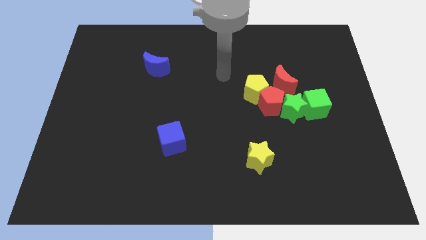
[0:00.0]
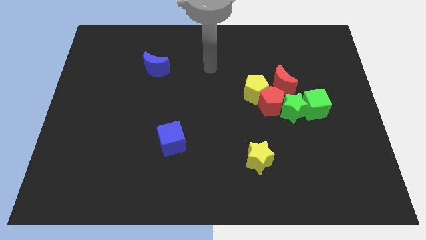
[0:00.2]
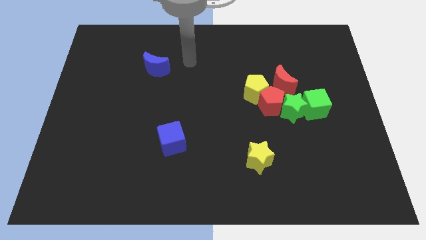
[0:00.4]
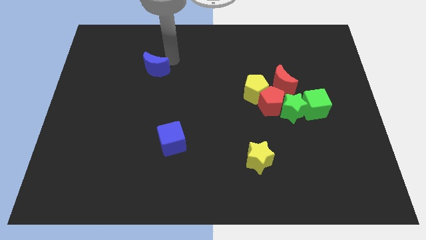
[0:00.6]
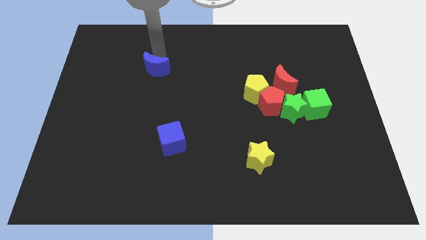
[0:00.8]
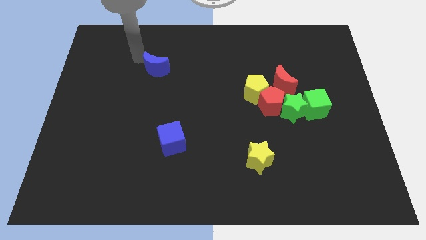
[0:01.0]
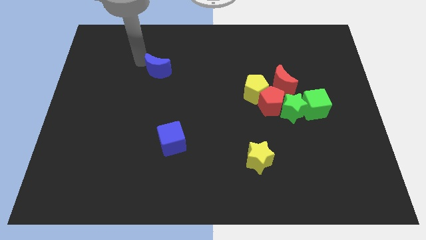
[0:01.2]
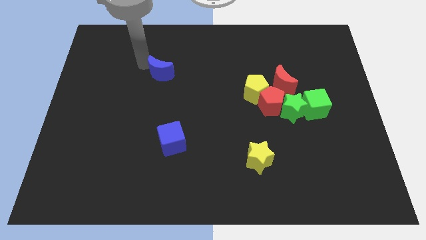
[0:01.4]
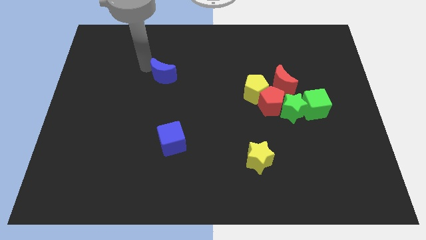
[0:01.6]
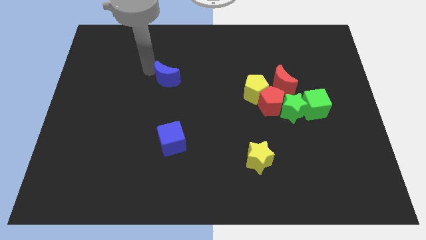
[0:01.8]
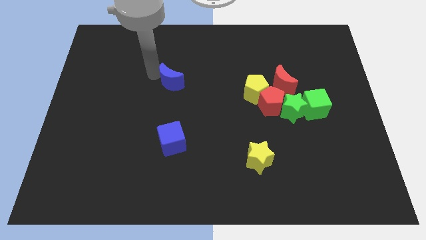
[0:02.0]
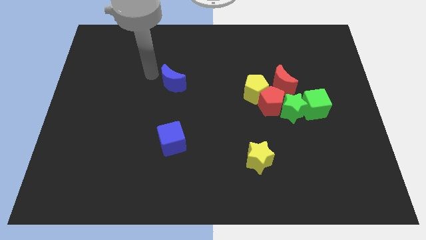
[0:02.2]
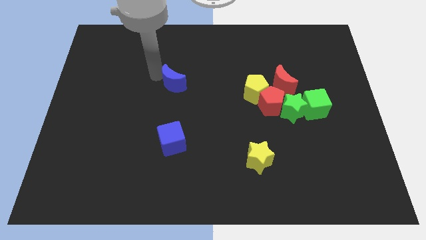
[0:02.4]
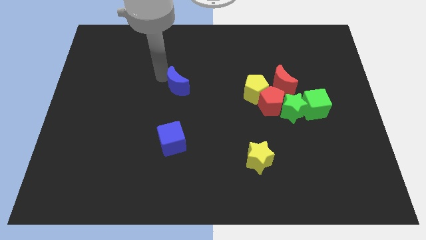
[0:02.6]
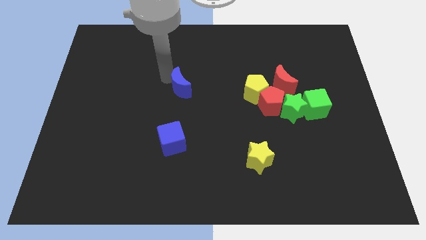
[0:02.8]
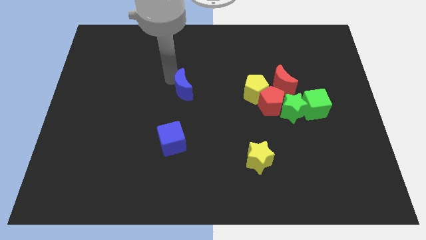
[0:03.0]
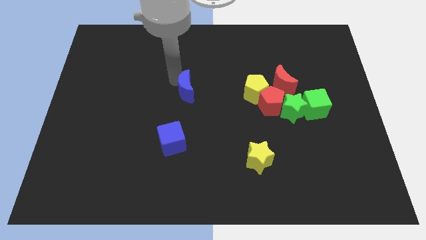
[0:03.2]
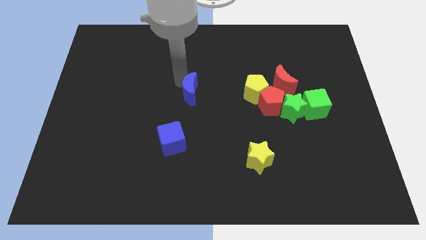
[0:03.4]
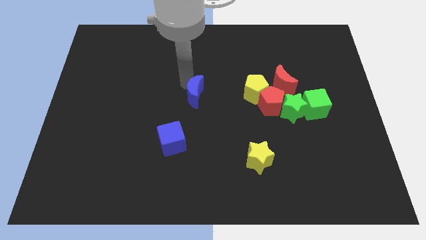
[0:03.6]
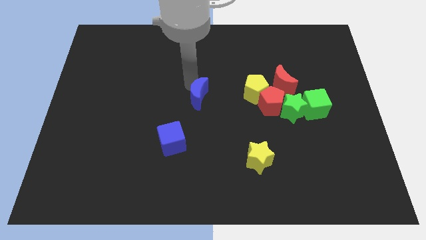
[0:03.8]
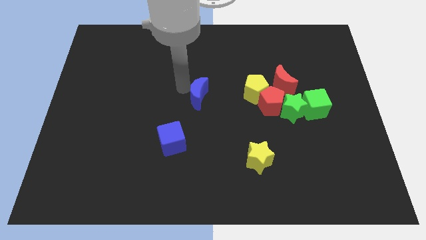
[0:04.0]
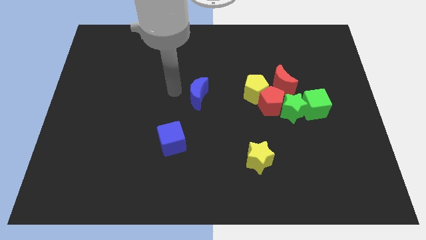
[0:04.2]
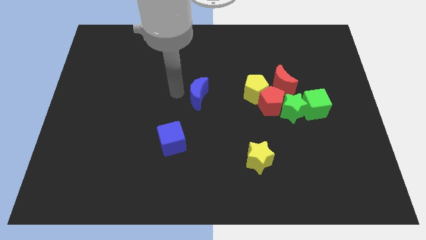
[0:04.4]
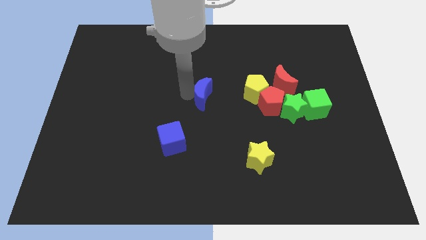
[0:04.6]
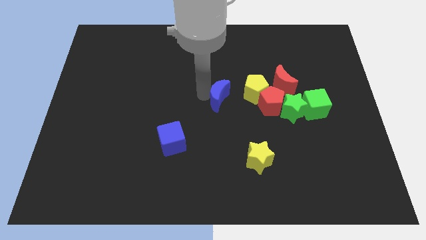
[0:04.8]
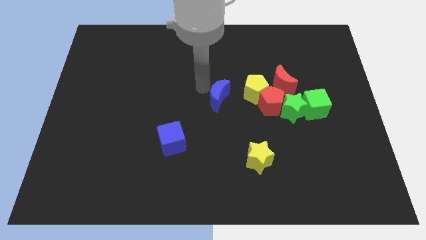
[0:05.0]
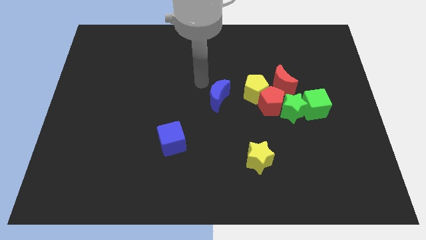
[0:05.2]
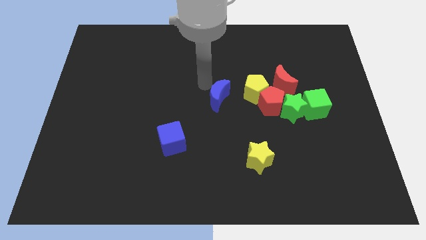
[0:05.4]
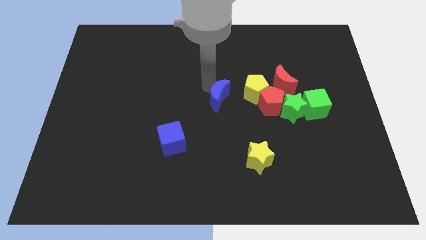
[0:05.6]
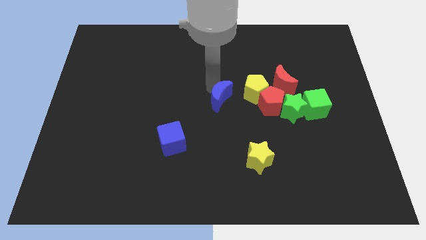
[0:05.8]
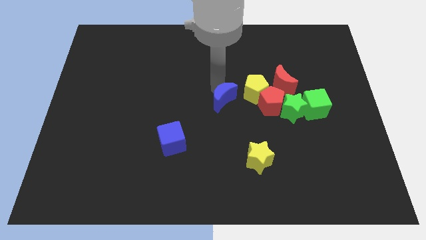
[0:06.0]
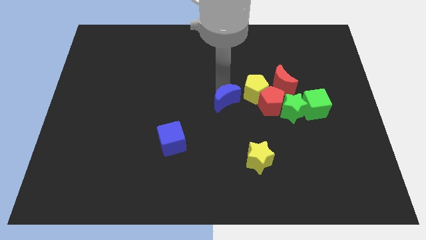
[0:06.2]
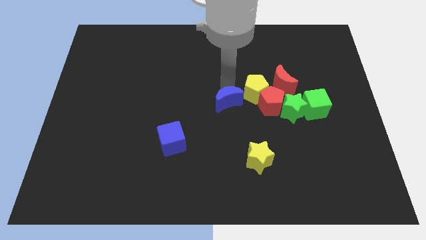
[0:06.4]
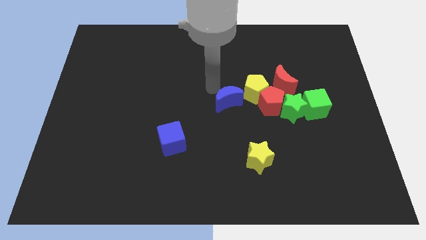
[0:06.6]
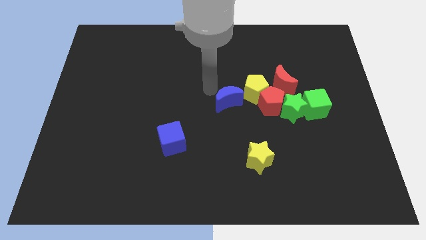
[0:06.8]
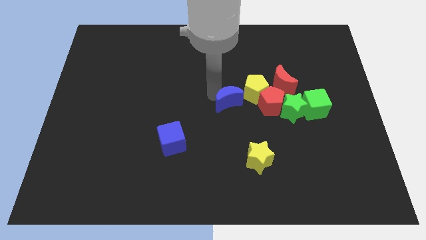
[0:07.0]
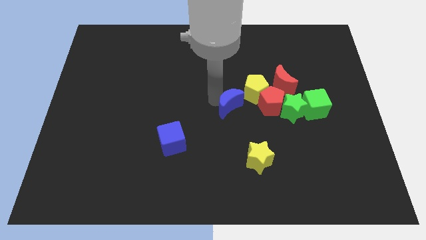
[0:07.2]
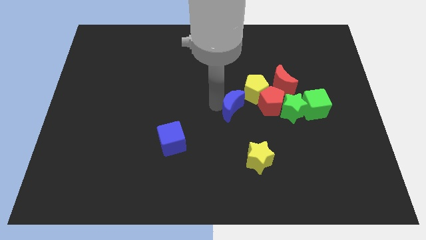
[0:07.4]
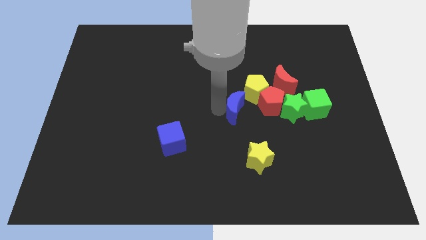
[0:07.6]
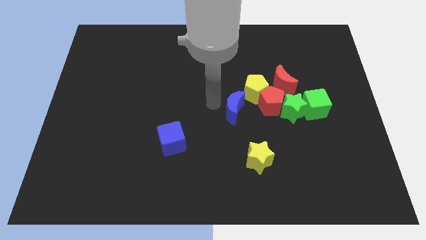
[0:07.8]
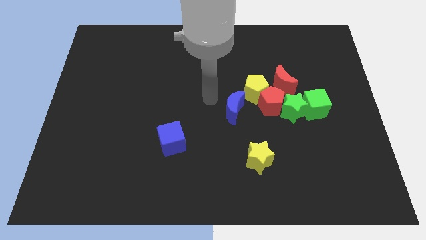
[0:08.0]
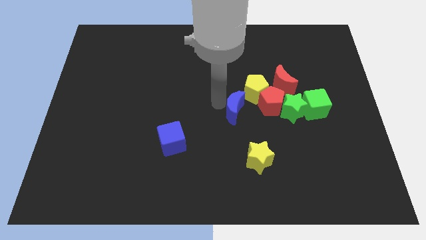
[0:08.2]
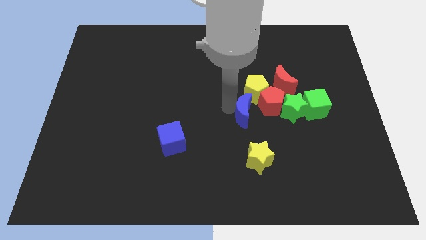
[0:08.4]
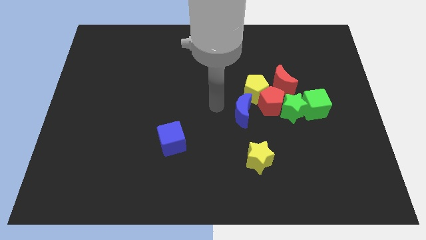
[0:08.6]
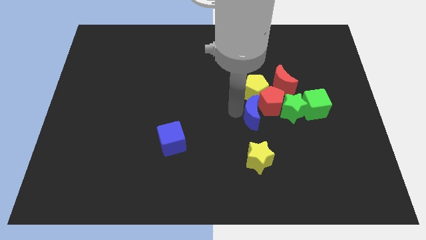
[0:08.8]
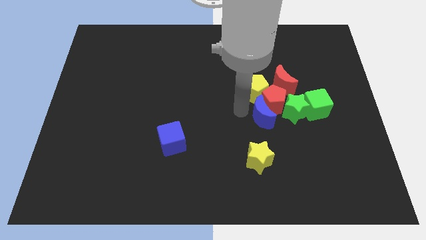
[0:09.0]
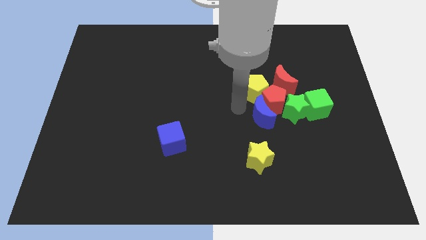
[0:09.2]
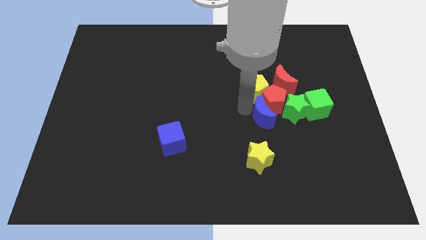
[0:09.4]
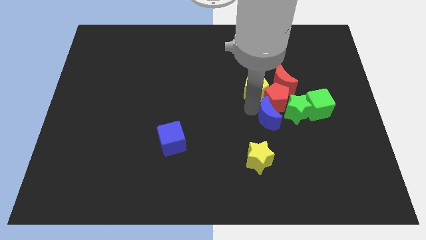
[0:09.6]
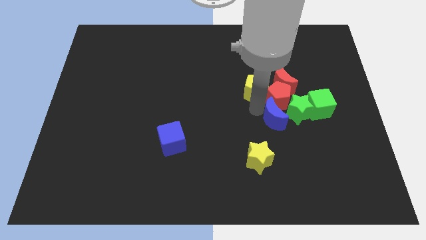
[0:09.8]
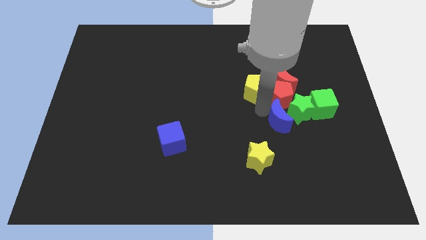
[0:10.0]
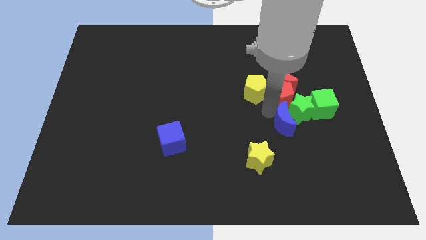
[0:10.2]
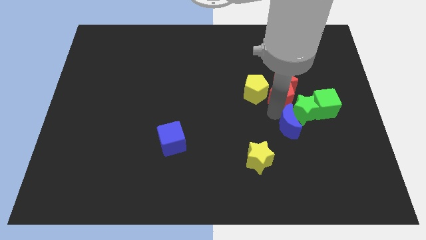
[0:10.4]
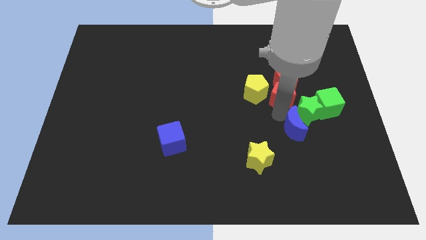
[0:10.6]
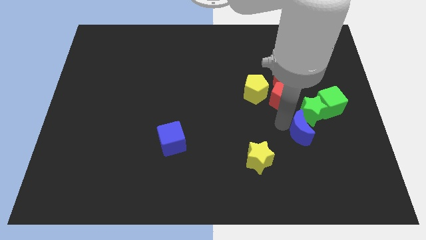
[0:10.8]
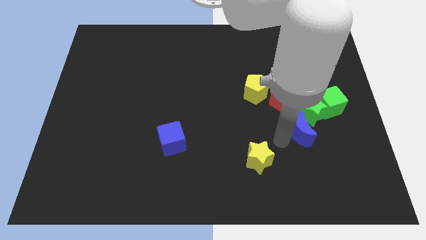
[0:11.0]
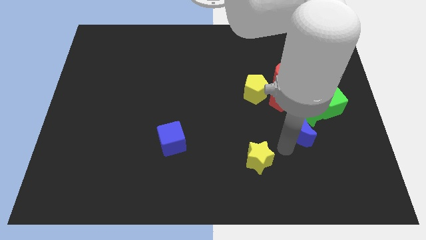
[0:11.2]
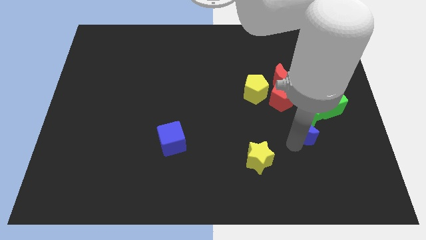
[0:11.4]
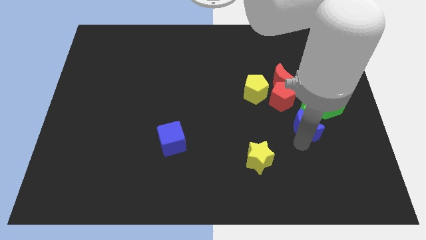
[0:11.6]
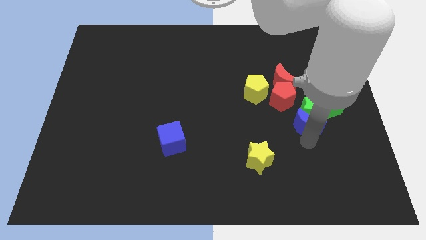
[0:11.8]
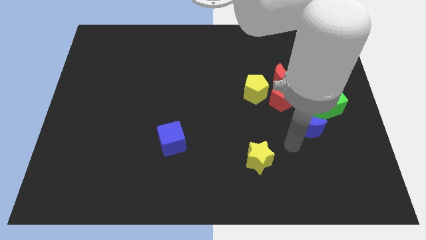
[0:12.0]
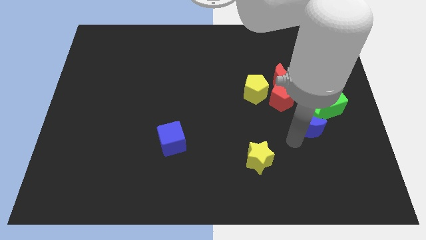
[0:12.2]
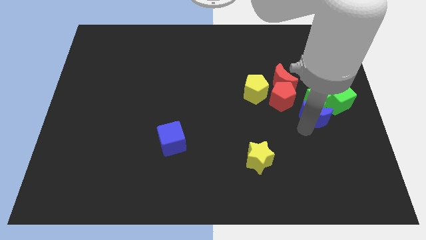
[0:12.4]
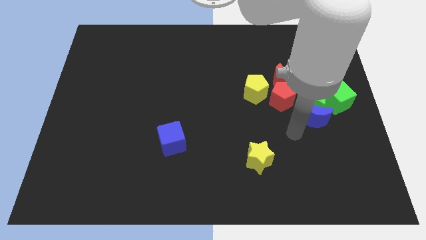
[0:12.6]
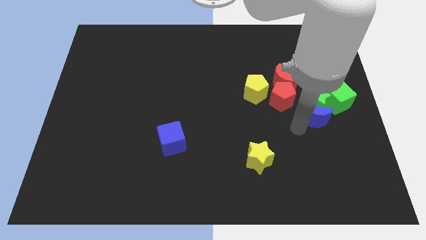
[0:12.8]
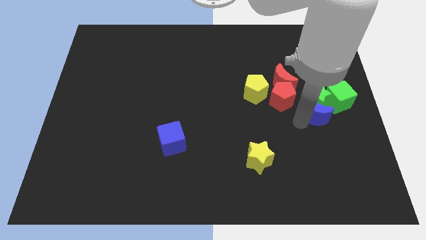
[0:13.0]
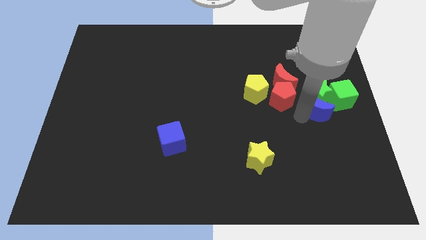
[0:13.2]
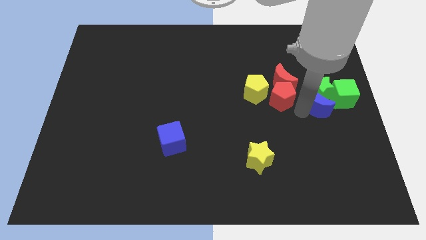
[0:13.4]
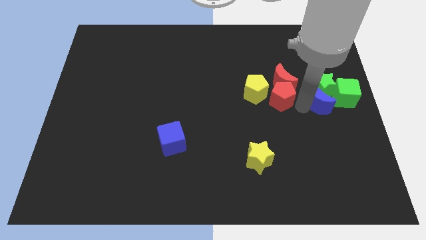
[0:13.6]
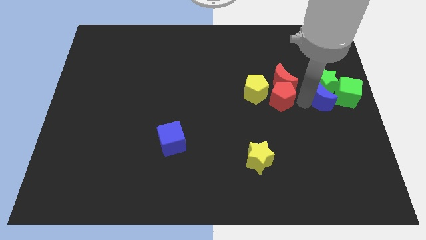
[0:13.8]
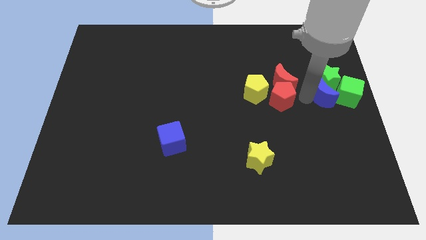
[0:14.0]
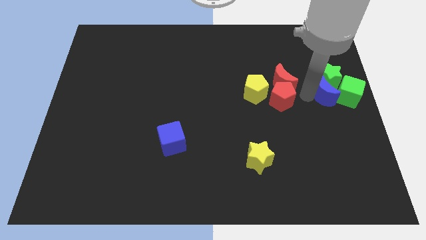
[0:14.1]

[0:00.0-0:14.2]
slide the blue moon towards the green cube
